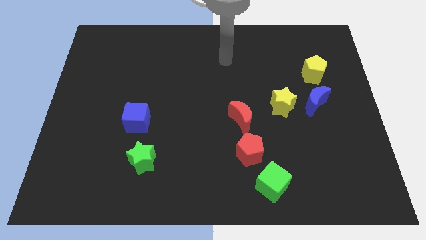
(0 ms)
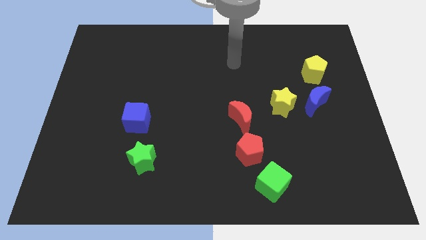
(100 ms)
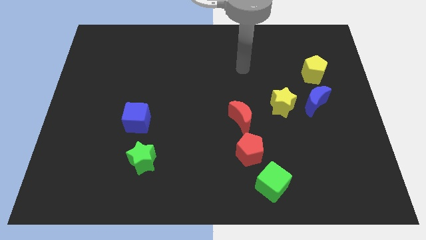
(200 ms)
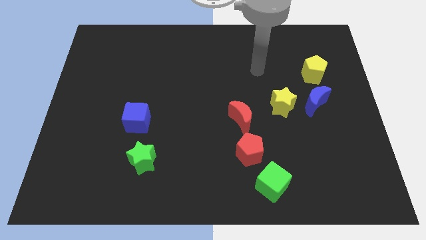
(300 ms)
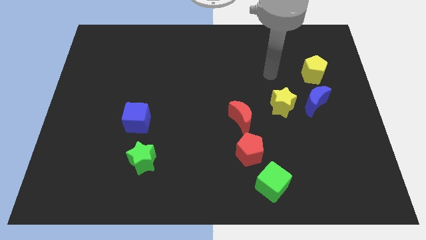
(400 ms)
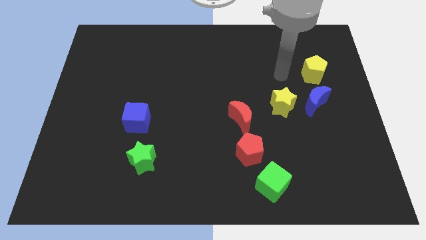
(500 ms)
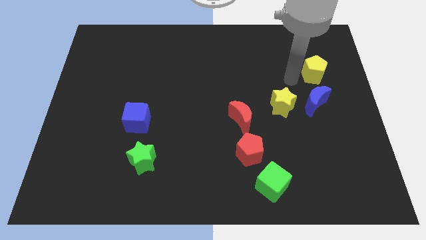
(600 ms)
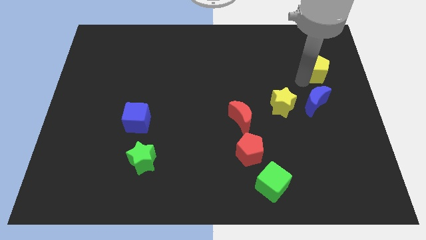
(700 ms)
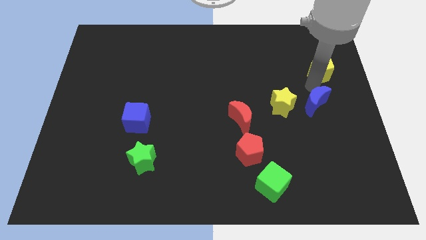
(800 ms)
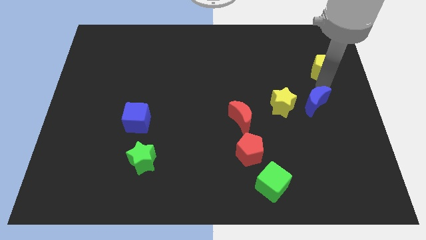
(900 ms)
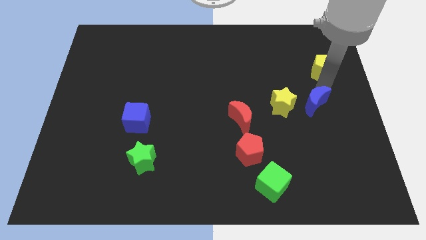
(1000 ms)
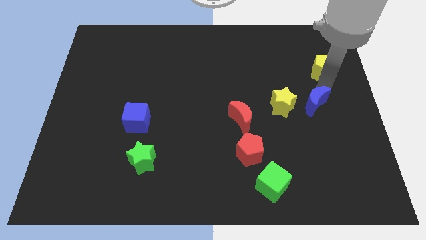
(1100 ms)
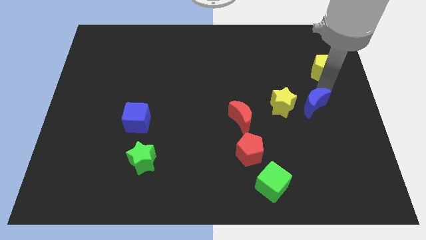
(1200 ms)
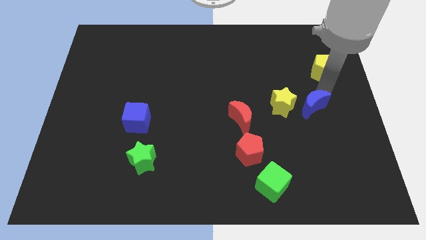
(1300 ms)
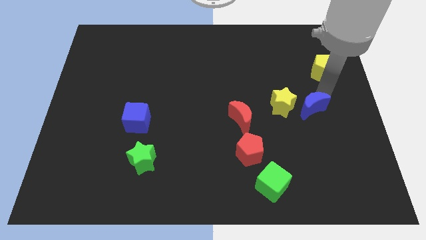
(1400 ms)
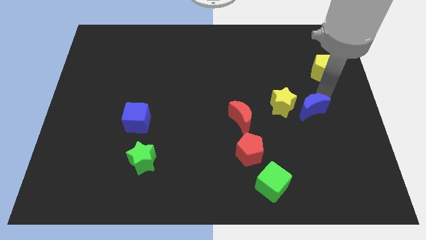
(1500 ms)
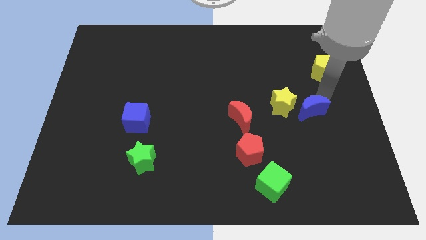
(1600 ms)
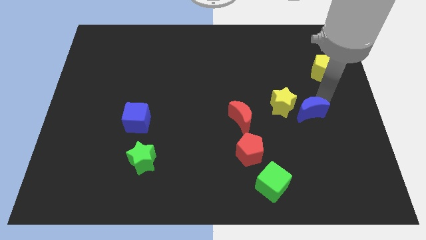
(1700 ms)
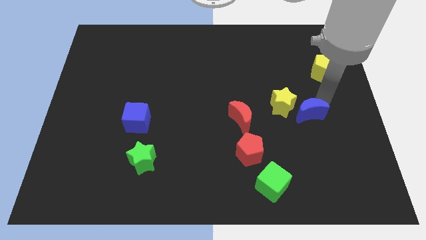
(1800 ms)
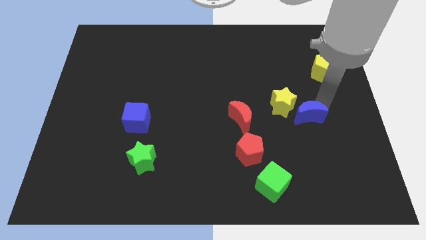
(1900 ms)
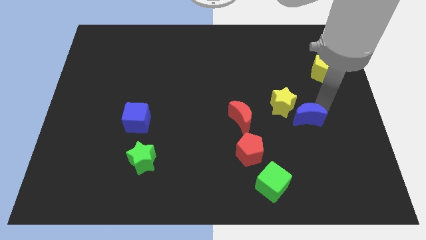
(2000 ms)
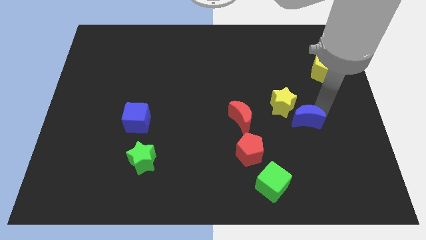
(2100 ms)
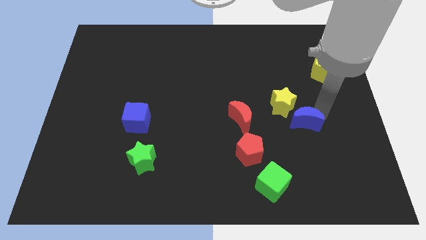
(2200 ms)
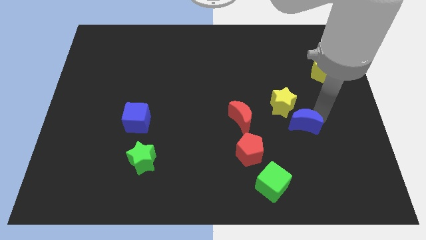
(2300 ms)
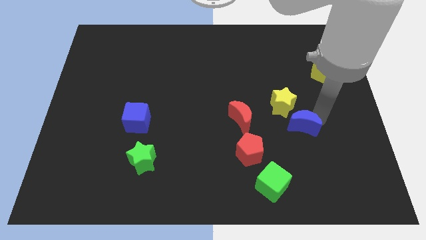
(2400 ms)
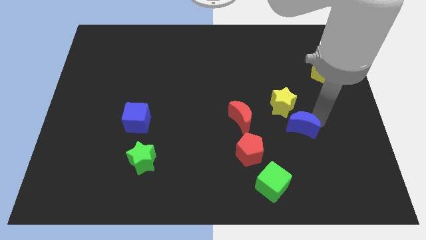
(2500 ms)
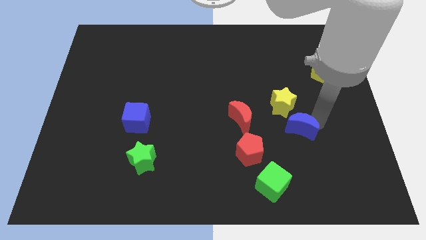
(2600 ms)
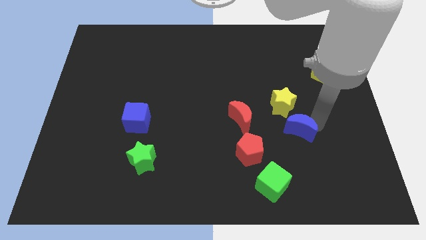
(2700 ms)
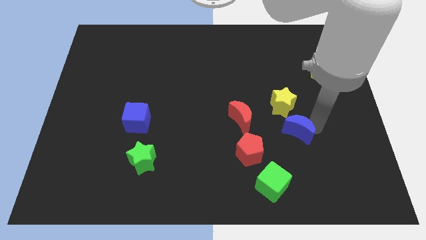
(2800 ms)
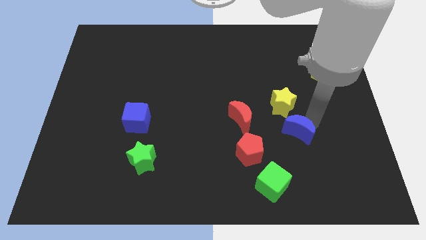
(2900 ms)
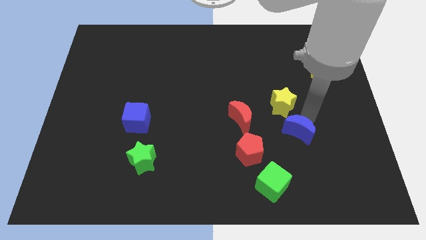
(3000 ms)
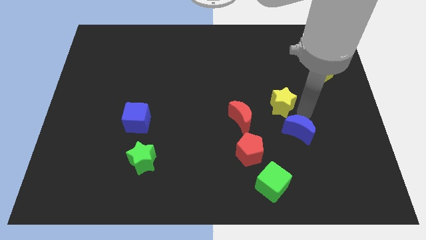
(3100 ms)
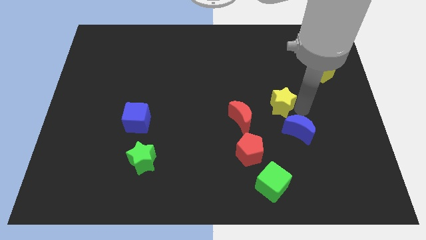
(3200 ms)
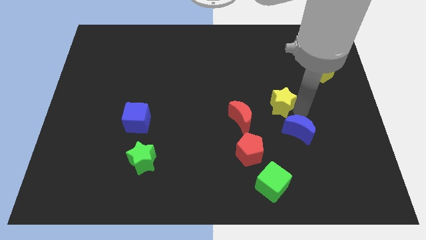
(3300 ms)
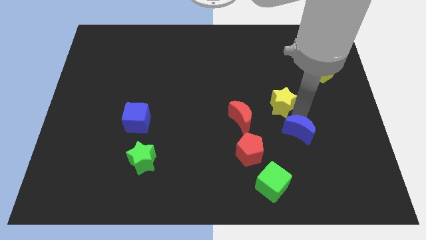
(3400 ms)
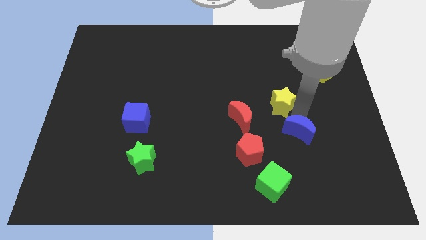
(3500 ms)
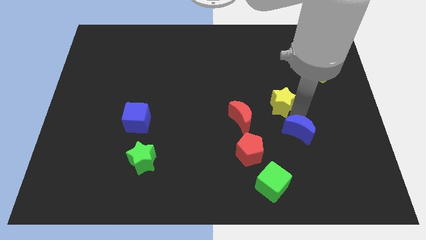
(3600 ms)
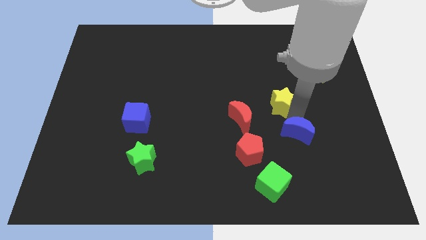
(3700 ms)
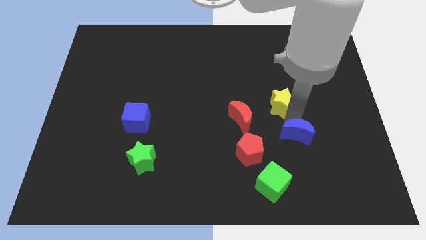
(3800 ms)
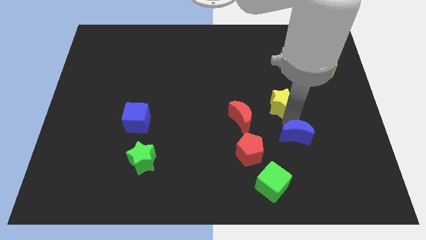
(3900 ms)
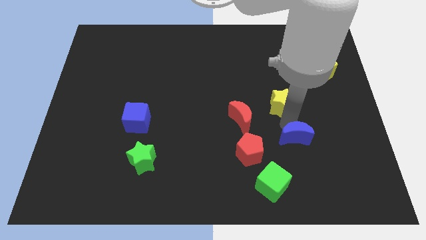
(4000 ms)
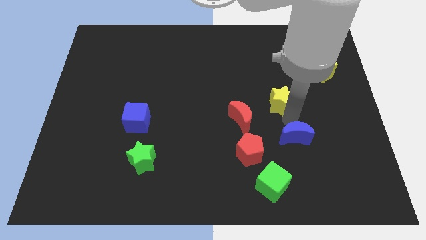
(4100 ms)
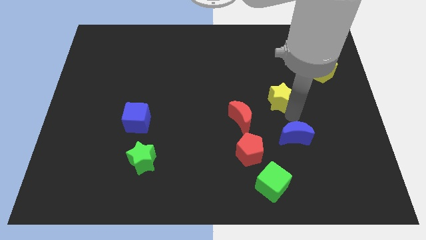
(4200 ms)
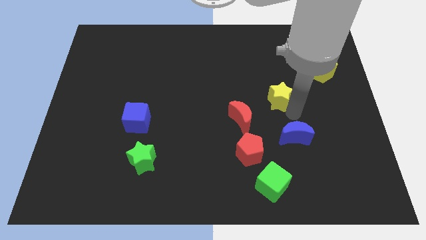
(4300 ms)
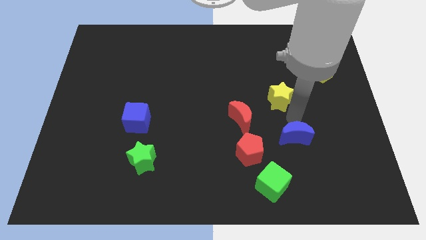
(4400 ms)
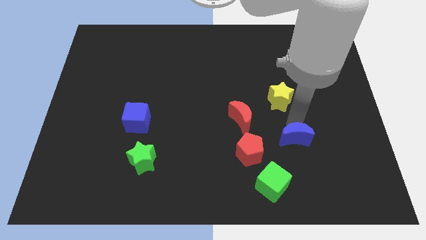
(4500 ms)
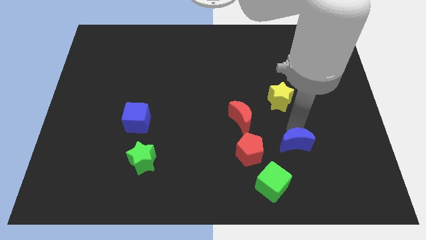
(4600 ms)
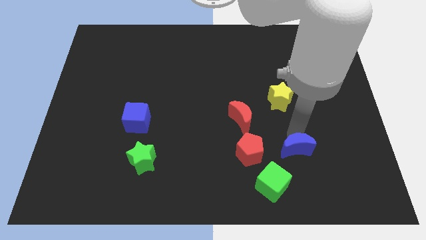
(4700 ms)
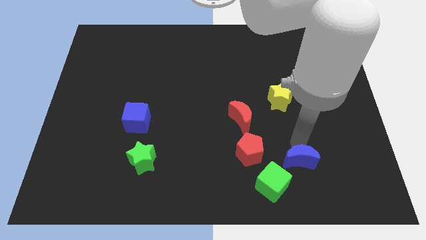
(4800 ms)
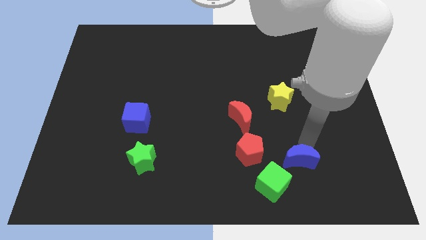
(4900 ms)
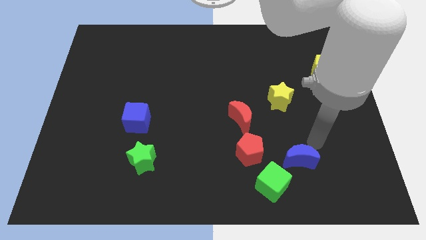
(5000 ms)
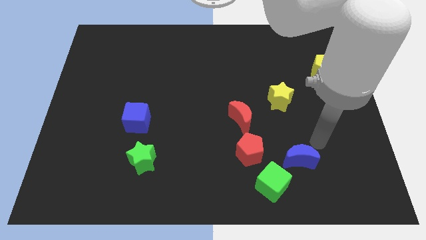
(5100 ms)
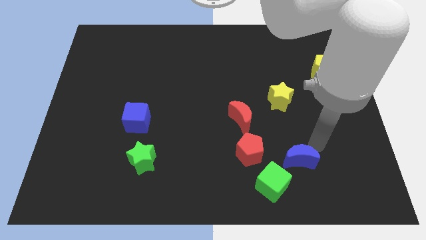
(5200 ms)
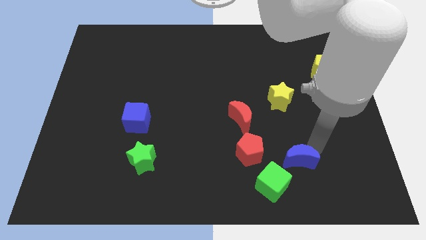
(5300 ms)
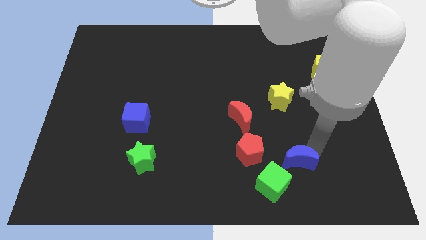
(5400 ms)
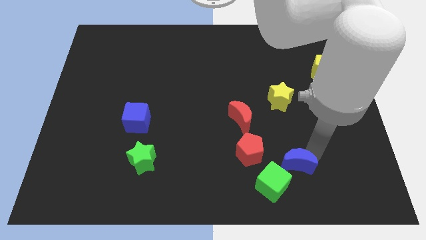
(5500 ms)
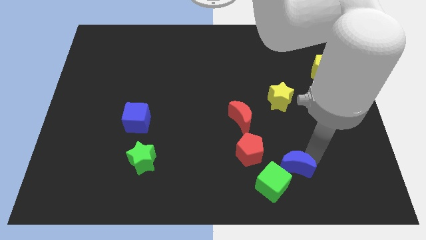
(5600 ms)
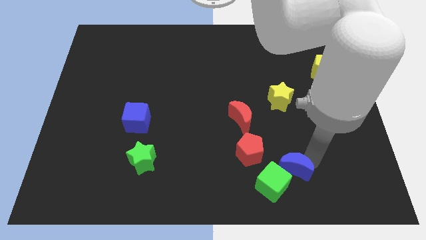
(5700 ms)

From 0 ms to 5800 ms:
move the blue moon next to the green cube

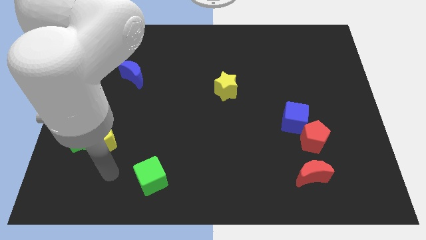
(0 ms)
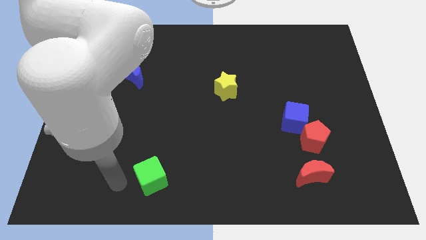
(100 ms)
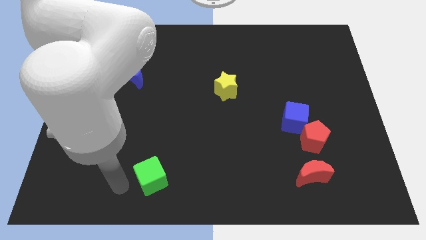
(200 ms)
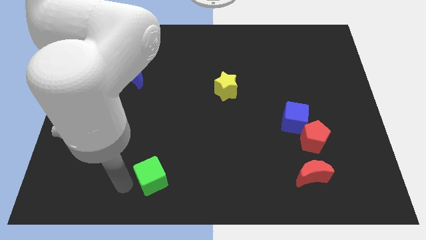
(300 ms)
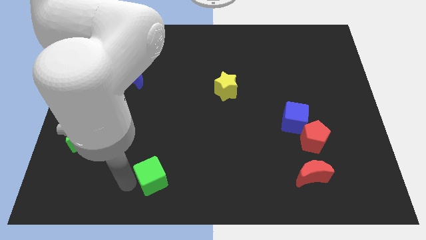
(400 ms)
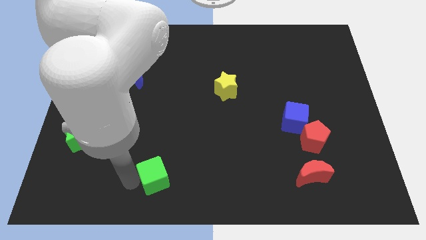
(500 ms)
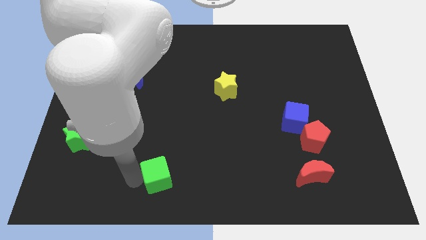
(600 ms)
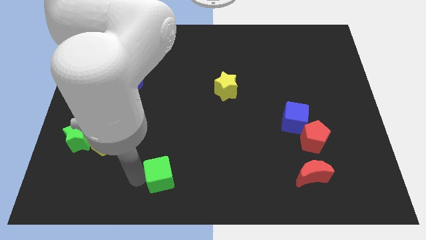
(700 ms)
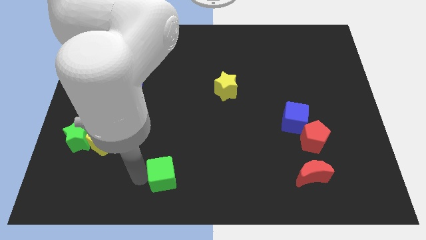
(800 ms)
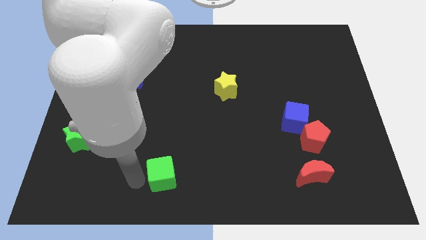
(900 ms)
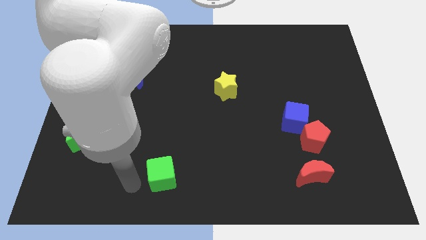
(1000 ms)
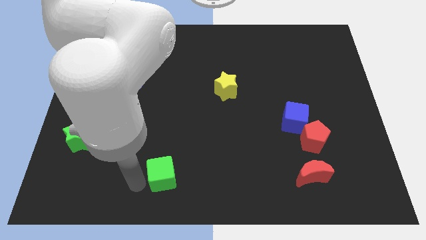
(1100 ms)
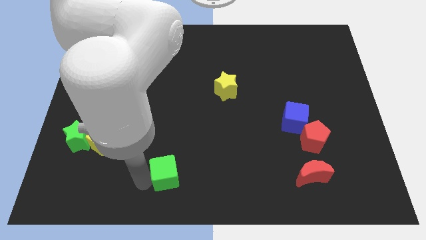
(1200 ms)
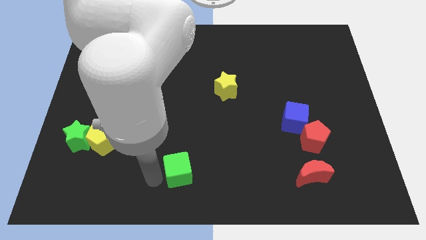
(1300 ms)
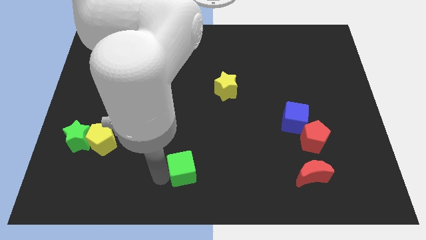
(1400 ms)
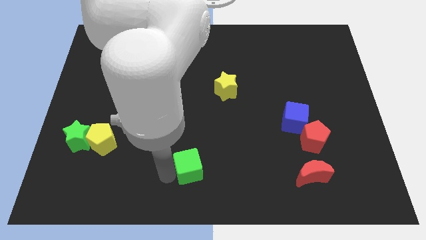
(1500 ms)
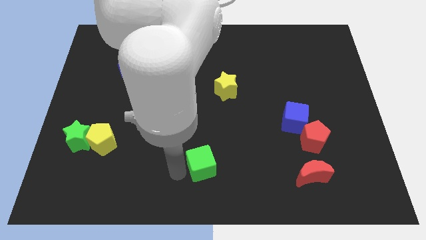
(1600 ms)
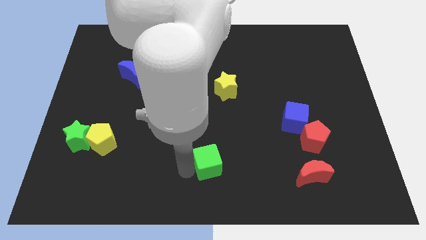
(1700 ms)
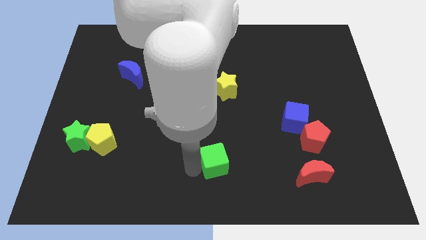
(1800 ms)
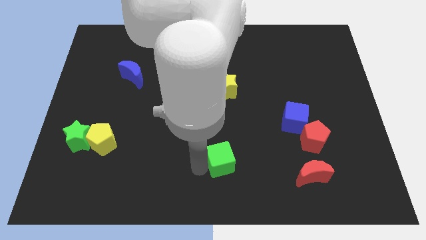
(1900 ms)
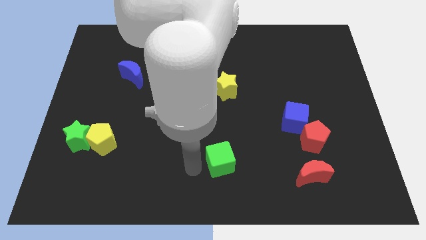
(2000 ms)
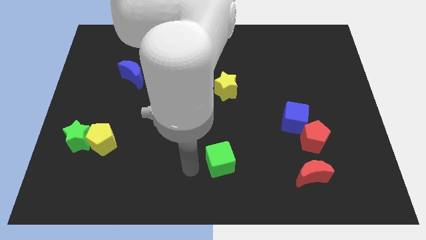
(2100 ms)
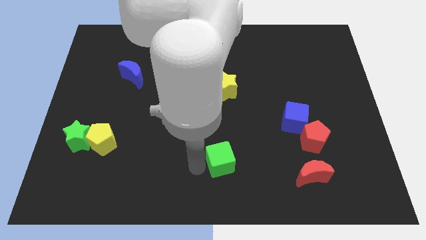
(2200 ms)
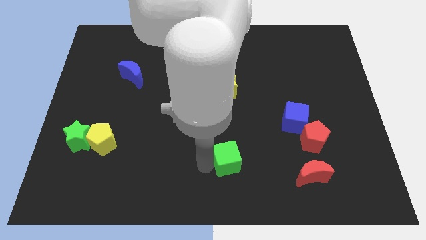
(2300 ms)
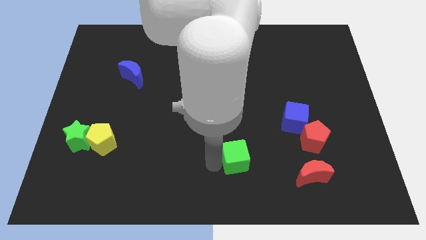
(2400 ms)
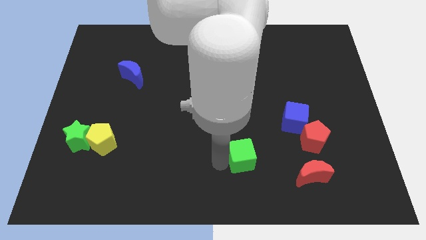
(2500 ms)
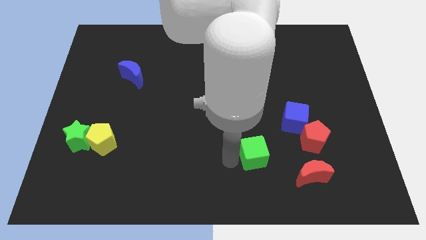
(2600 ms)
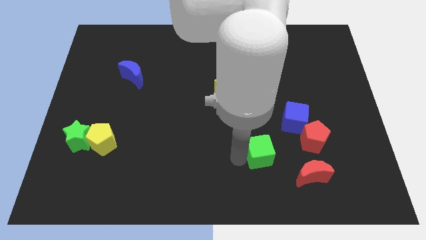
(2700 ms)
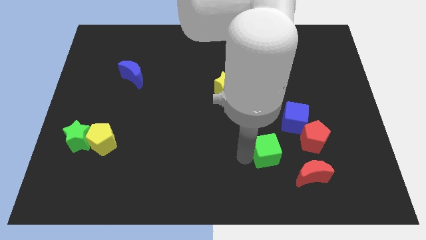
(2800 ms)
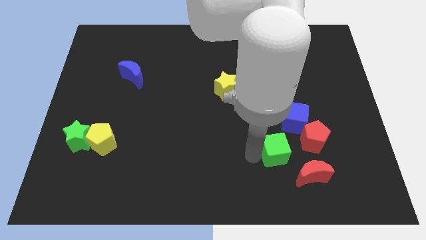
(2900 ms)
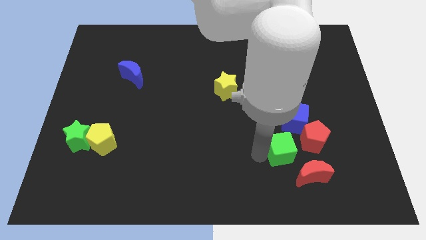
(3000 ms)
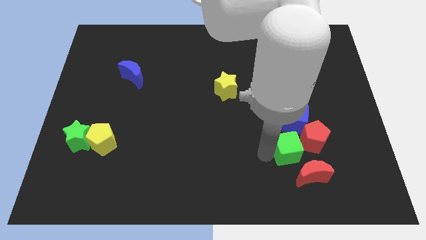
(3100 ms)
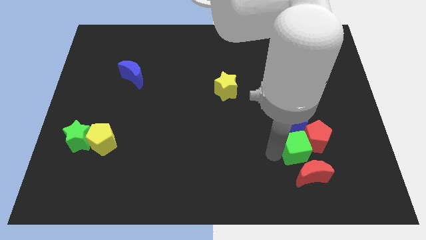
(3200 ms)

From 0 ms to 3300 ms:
slide the green cube close to the red pentagon
